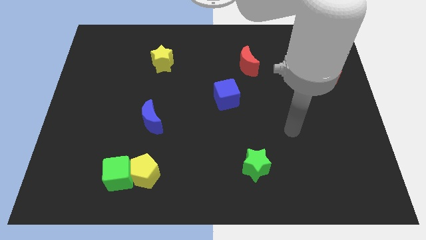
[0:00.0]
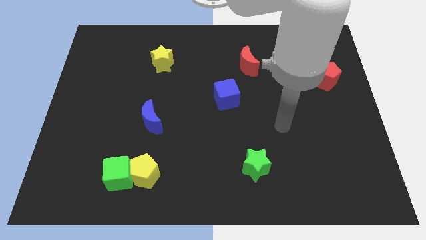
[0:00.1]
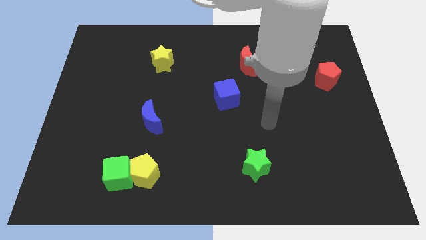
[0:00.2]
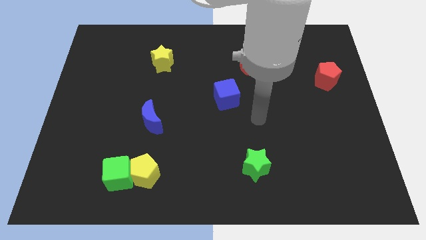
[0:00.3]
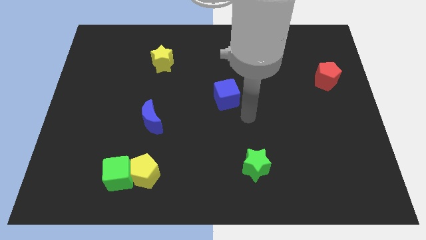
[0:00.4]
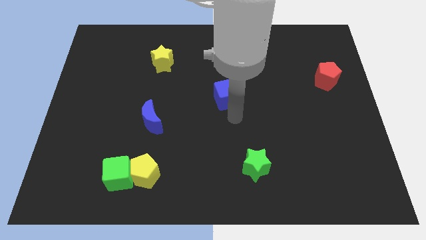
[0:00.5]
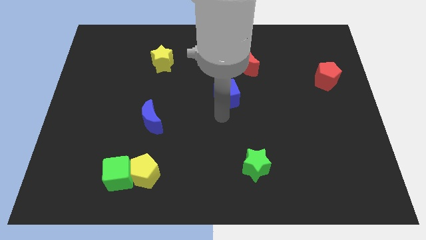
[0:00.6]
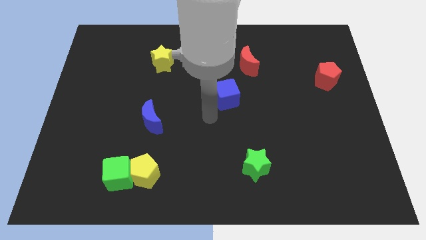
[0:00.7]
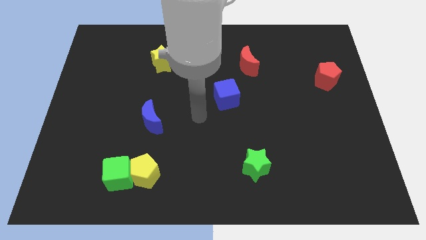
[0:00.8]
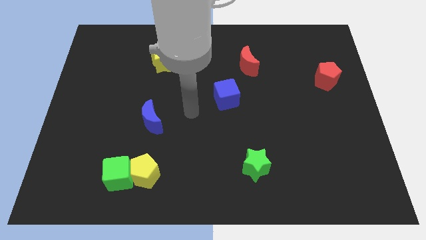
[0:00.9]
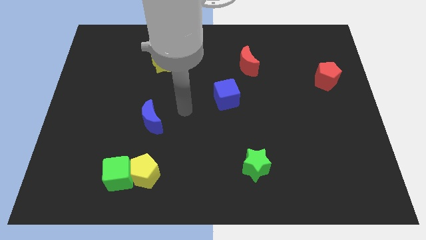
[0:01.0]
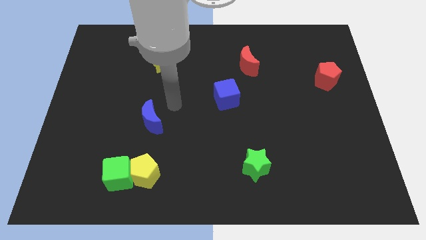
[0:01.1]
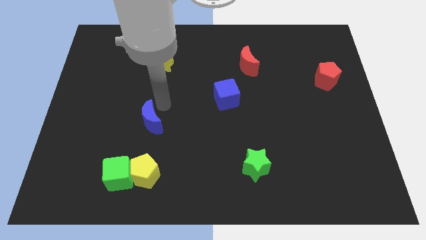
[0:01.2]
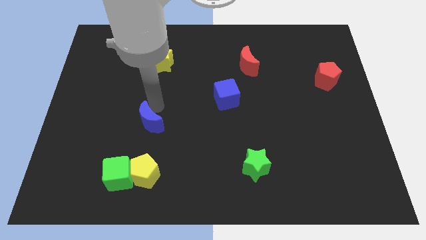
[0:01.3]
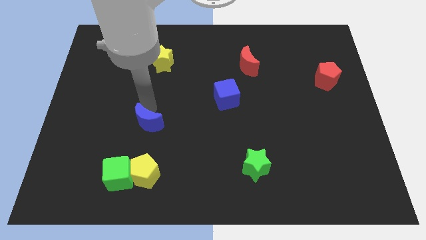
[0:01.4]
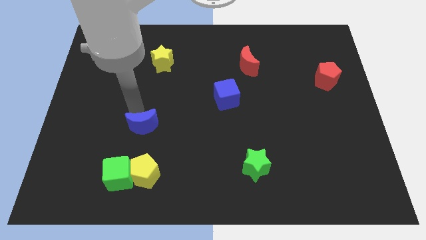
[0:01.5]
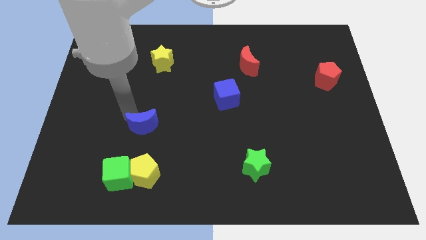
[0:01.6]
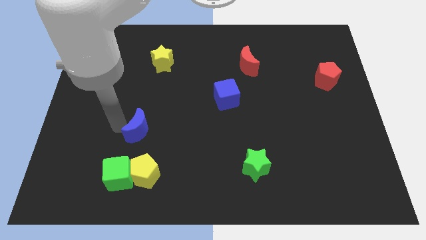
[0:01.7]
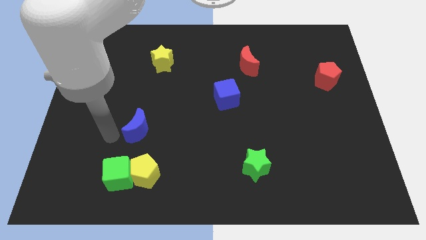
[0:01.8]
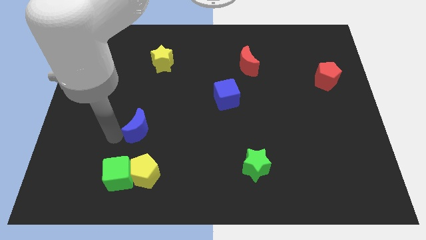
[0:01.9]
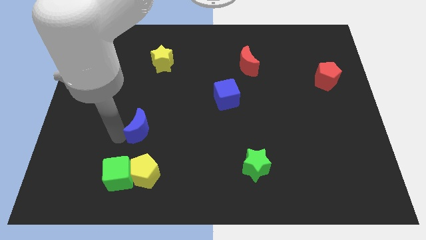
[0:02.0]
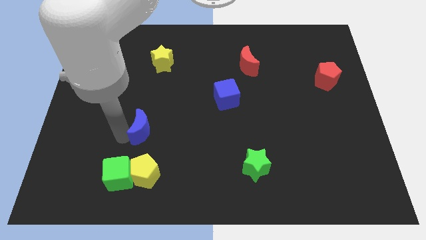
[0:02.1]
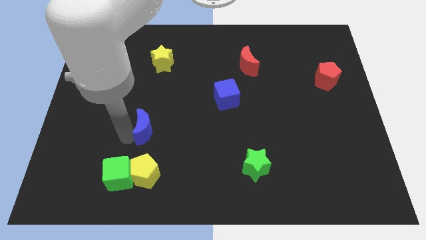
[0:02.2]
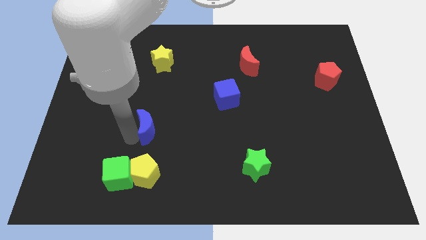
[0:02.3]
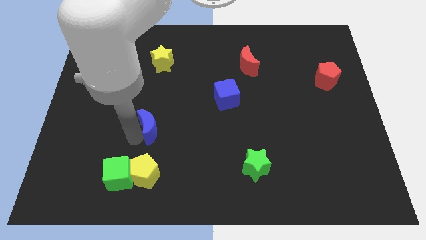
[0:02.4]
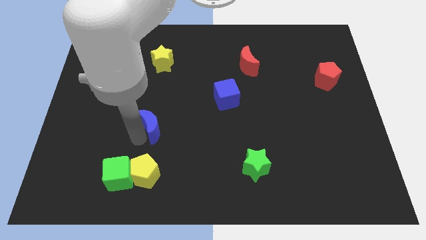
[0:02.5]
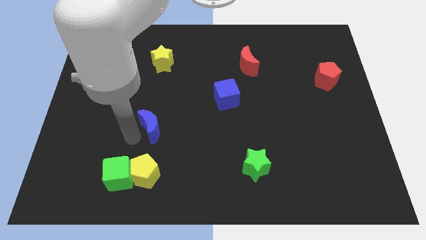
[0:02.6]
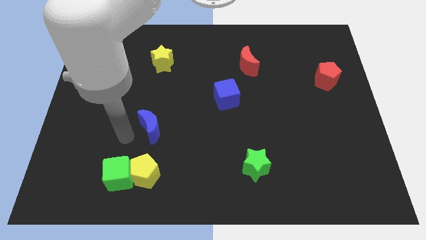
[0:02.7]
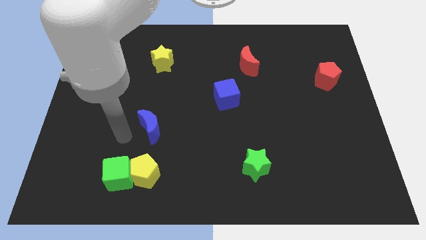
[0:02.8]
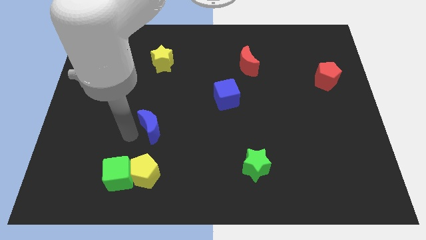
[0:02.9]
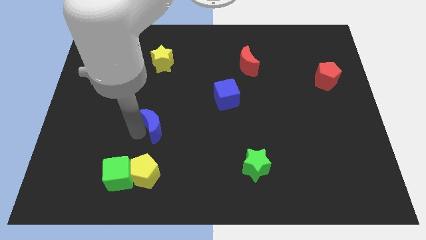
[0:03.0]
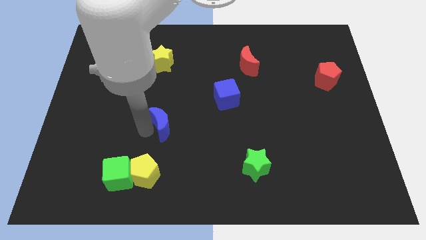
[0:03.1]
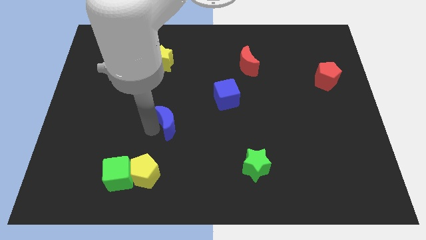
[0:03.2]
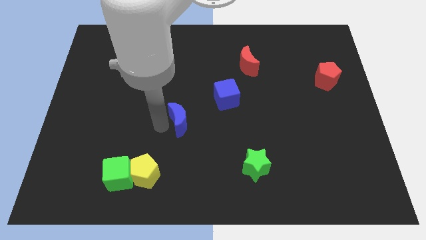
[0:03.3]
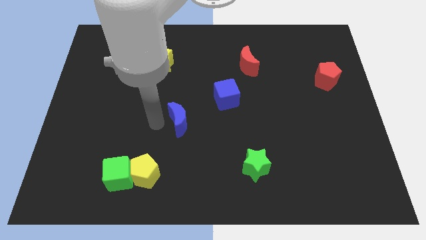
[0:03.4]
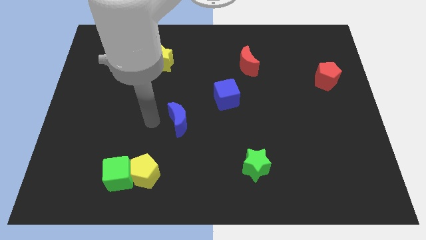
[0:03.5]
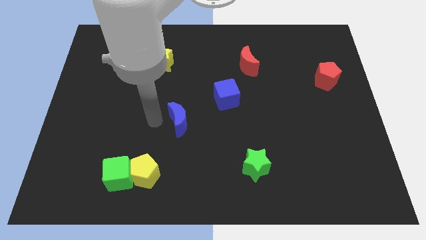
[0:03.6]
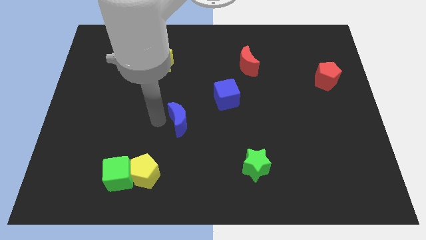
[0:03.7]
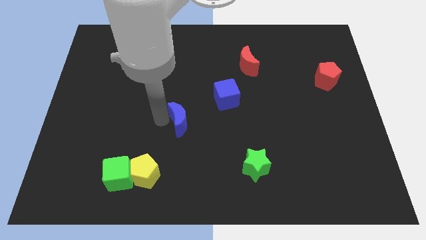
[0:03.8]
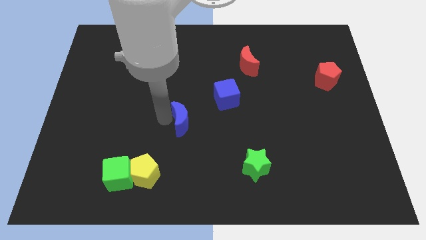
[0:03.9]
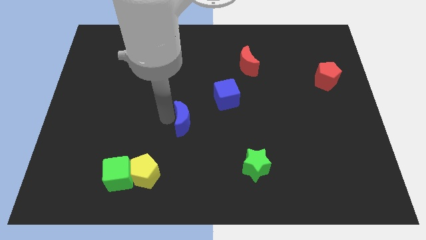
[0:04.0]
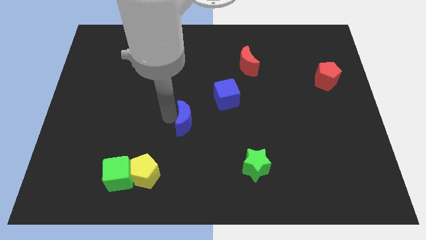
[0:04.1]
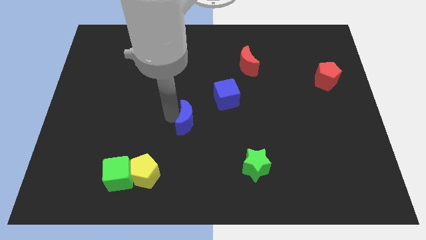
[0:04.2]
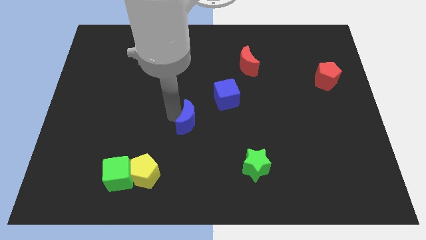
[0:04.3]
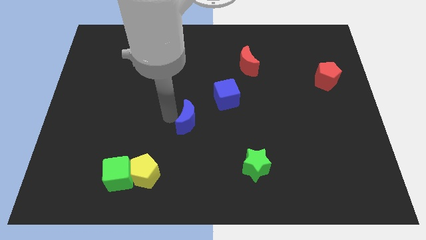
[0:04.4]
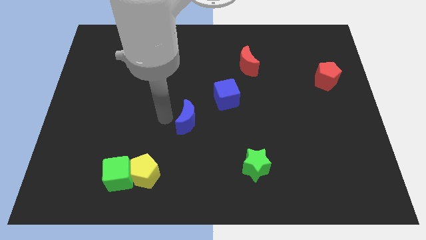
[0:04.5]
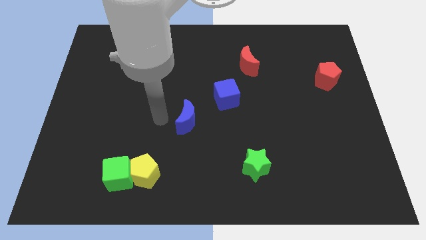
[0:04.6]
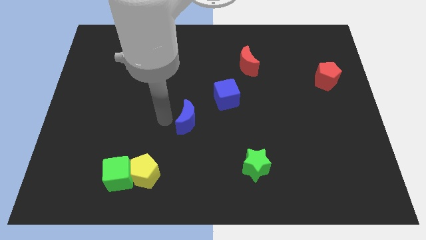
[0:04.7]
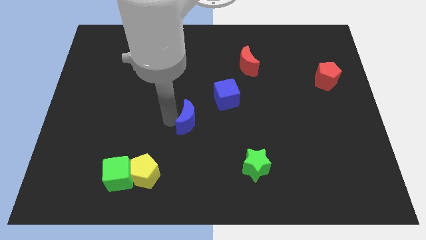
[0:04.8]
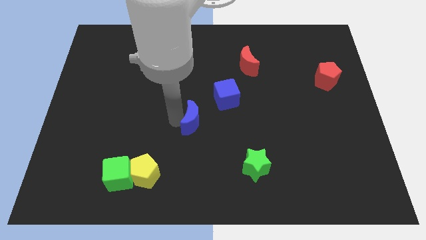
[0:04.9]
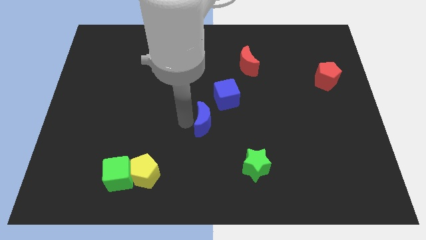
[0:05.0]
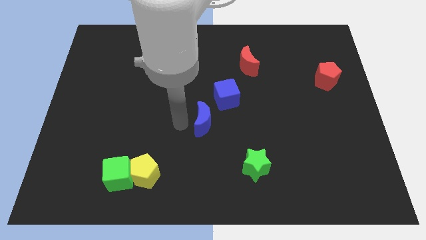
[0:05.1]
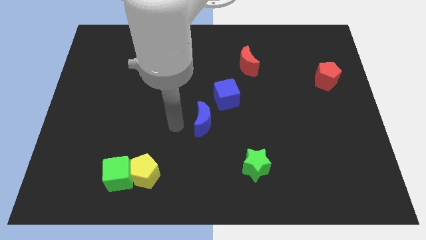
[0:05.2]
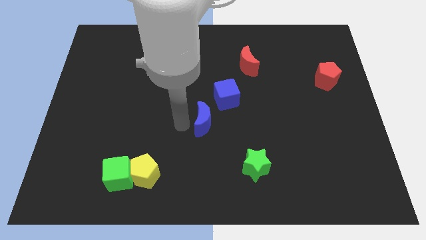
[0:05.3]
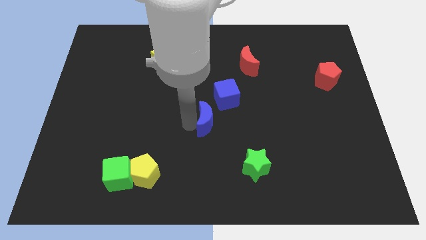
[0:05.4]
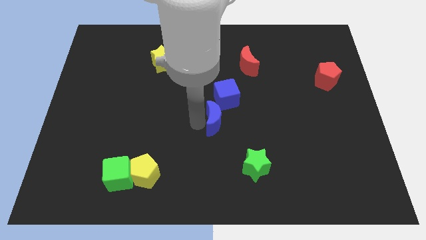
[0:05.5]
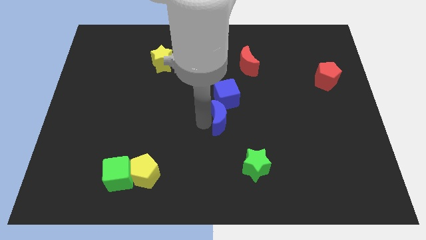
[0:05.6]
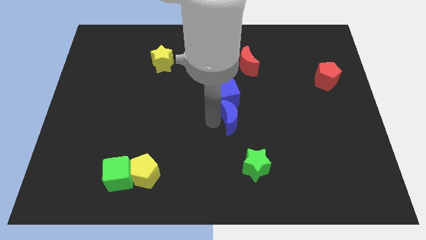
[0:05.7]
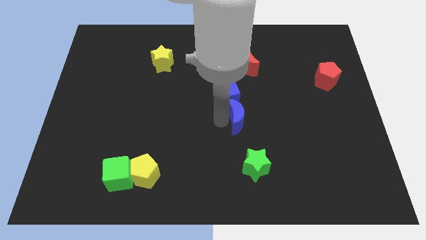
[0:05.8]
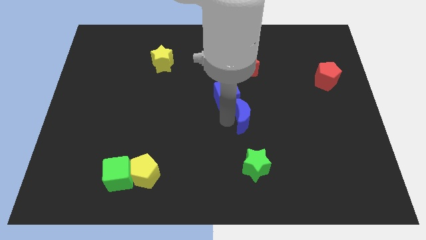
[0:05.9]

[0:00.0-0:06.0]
push the blue moon to the right

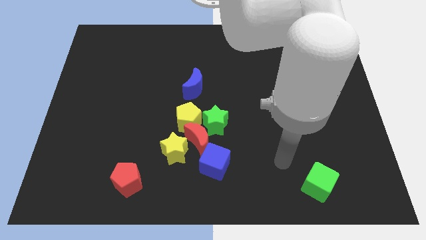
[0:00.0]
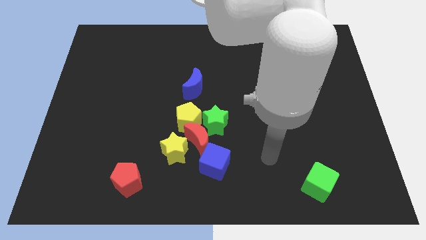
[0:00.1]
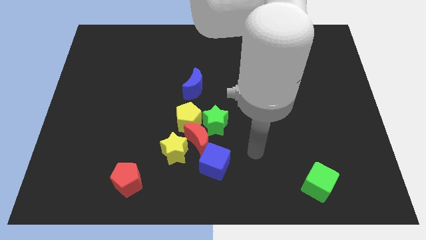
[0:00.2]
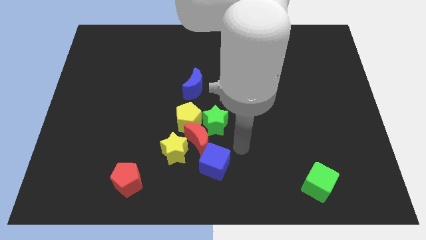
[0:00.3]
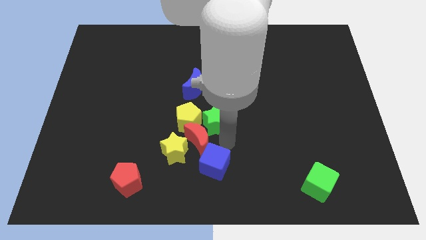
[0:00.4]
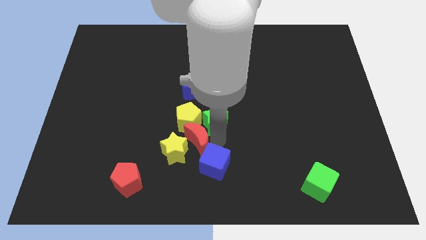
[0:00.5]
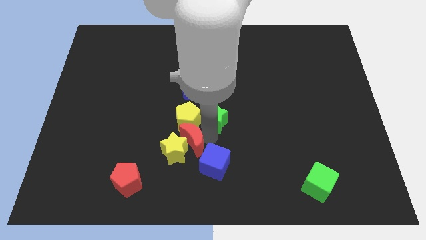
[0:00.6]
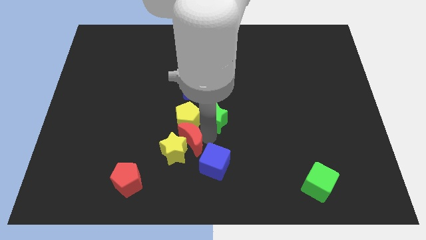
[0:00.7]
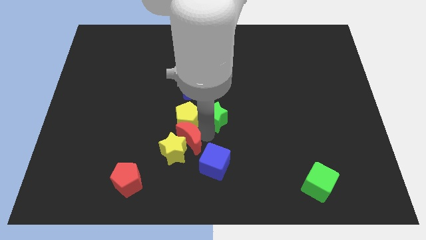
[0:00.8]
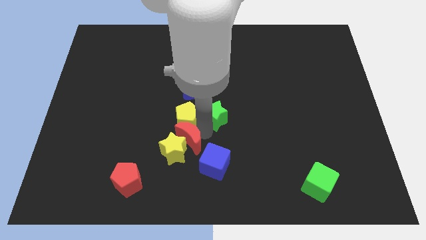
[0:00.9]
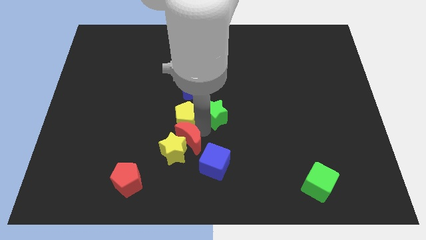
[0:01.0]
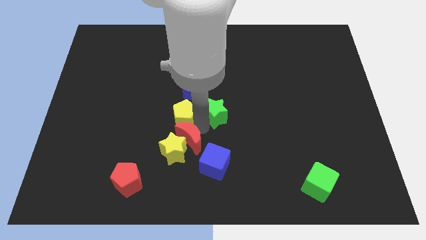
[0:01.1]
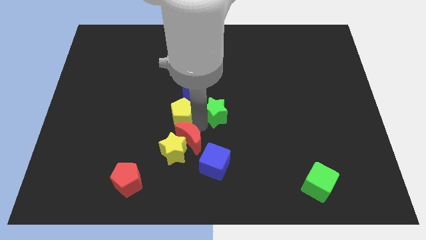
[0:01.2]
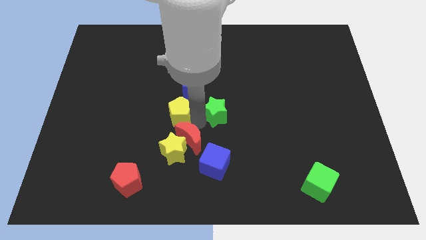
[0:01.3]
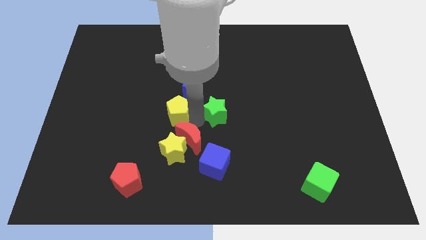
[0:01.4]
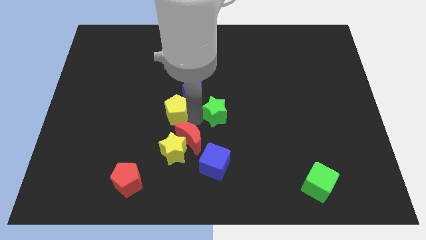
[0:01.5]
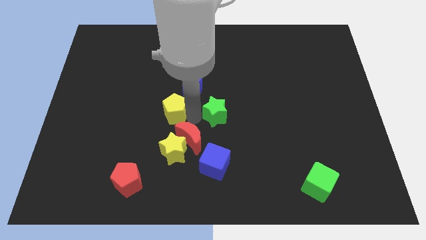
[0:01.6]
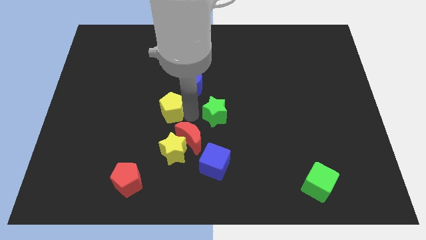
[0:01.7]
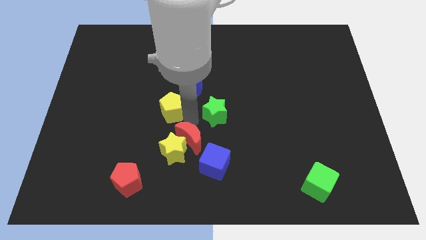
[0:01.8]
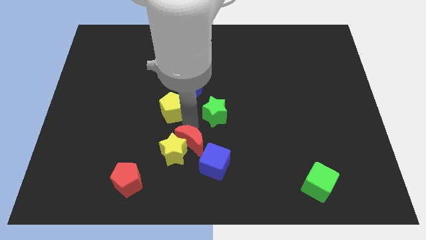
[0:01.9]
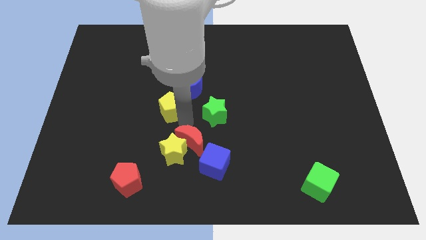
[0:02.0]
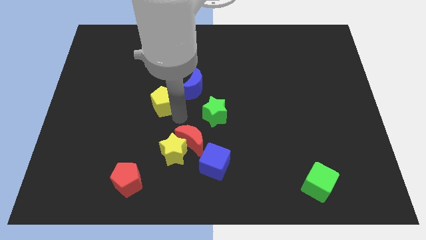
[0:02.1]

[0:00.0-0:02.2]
push the yellow pentagon somewhat up and left
